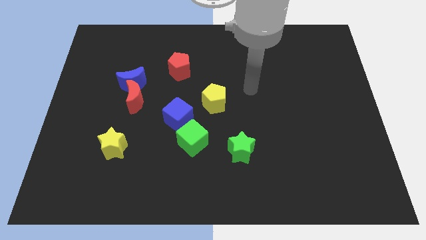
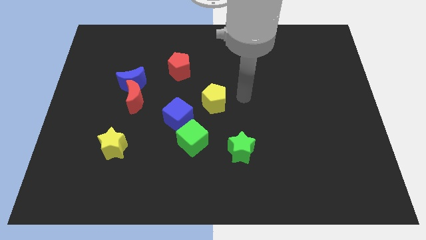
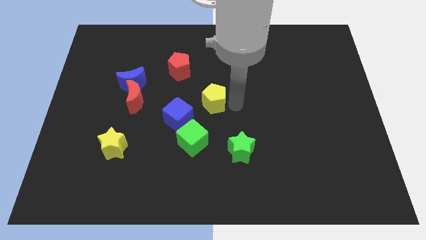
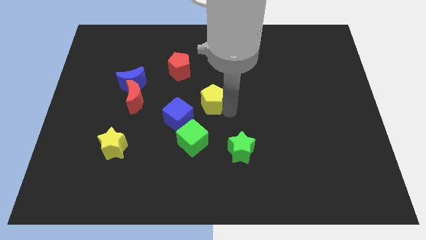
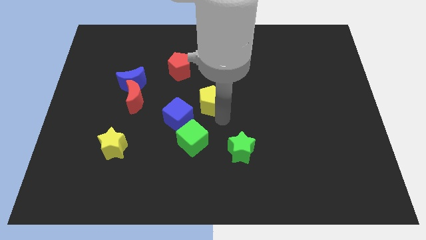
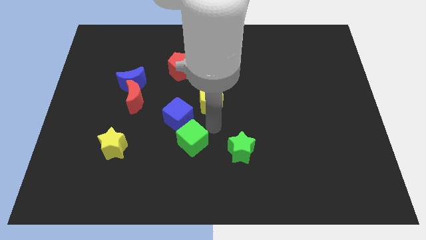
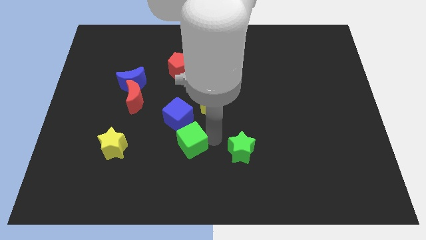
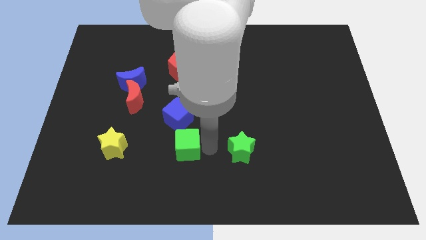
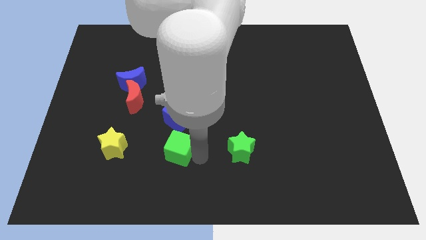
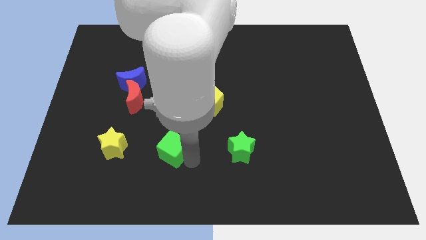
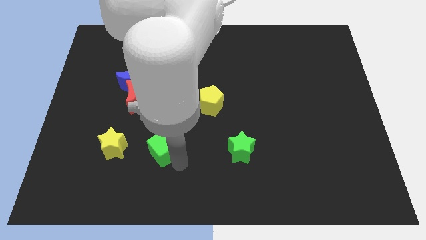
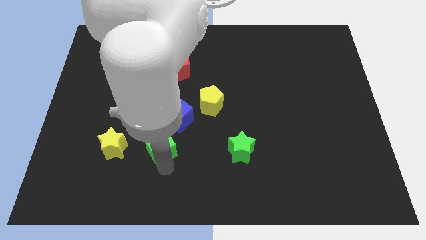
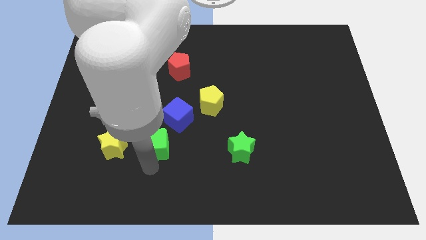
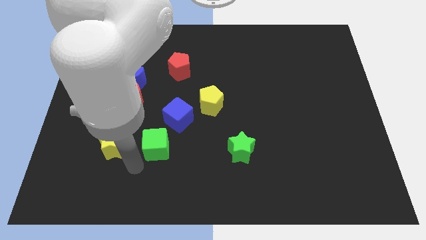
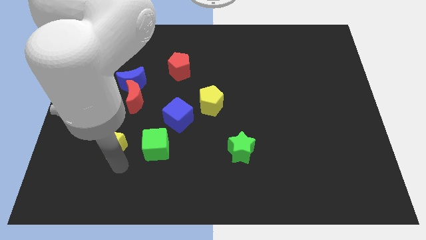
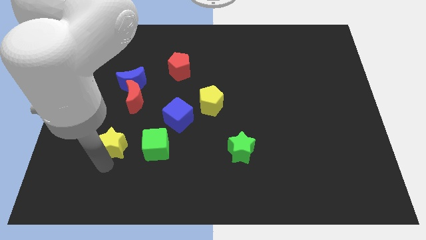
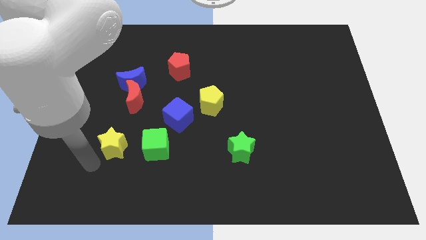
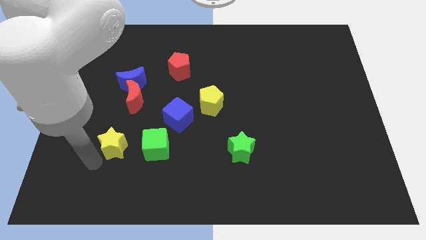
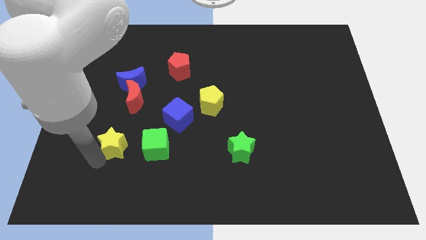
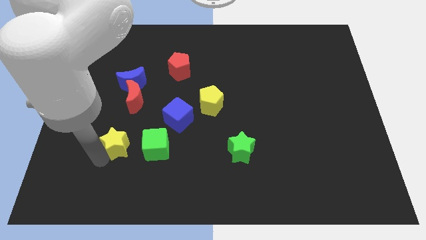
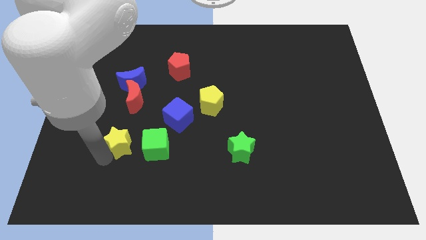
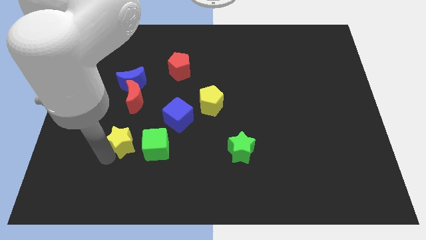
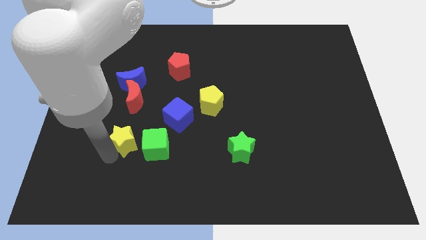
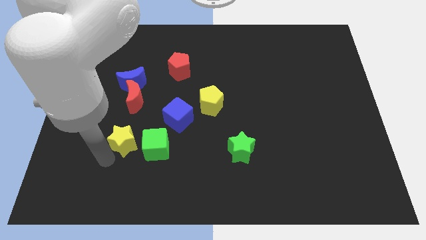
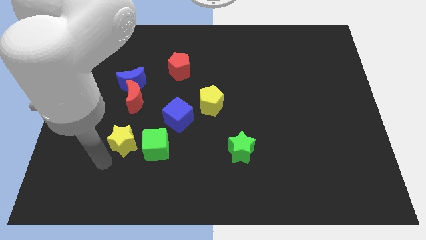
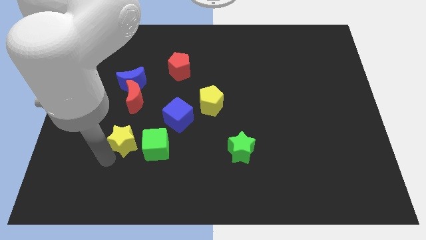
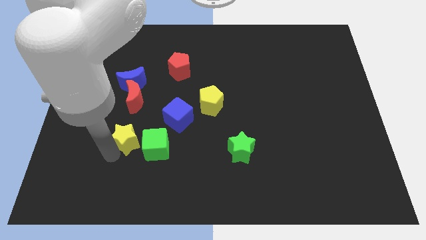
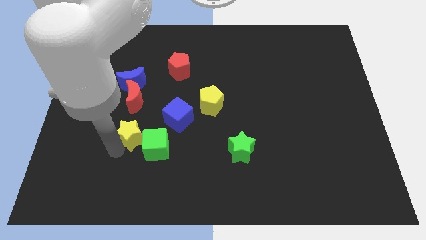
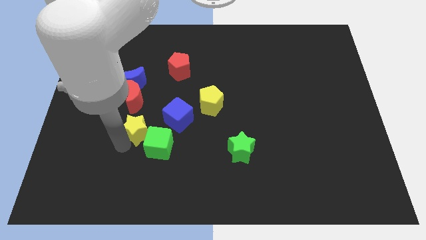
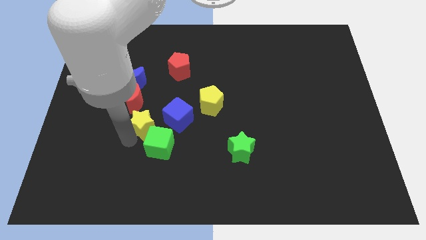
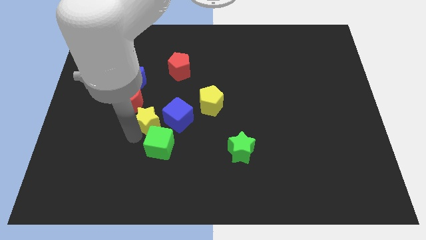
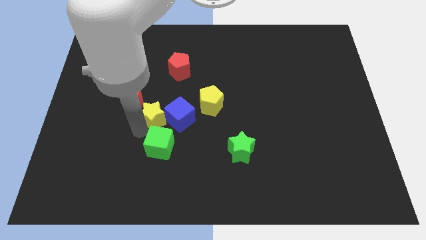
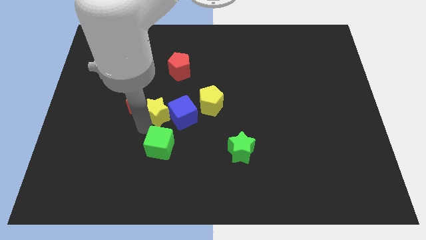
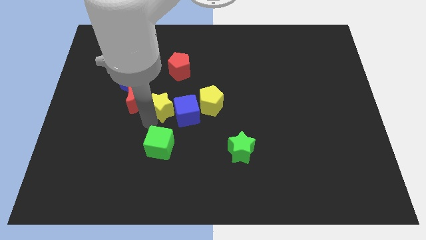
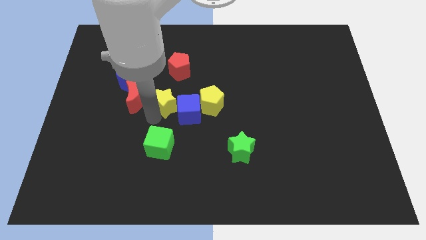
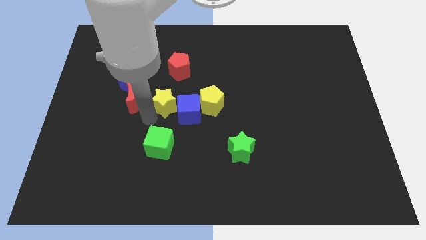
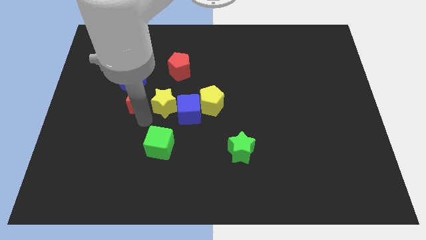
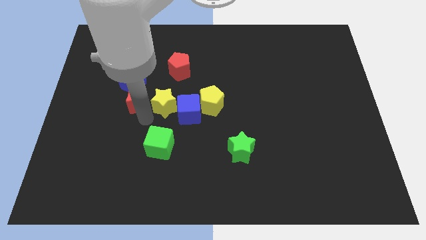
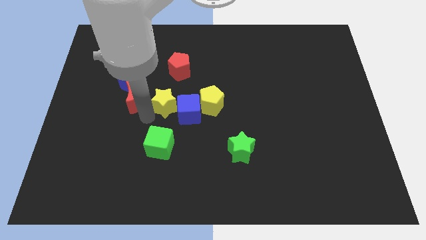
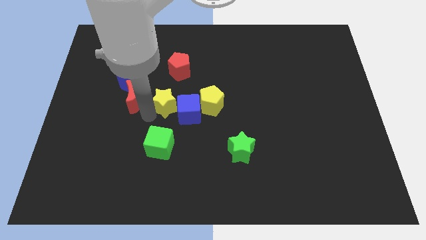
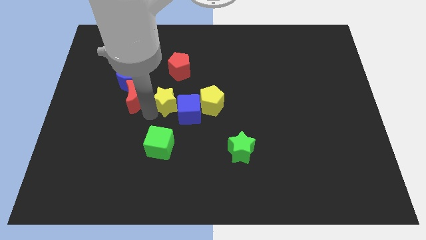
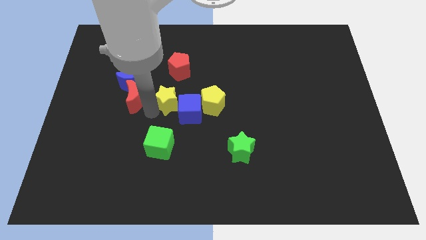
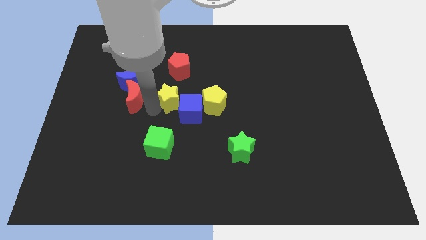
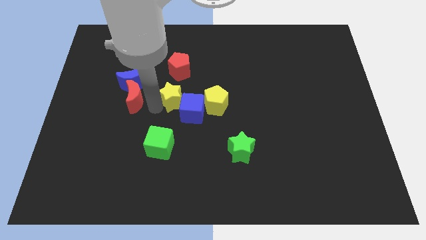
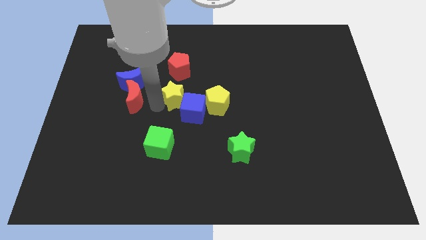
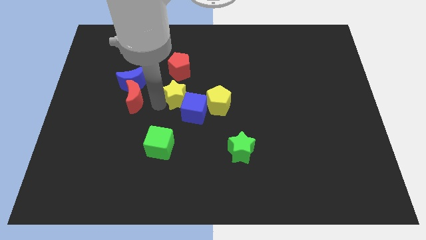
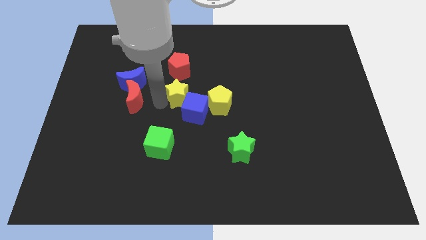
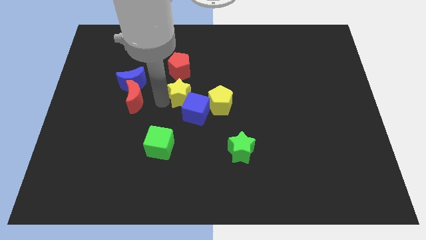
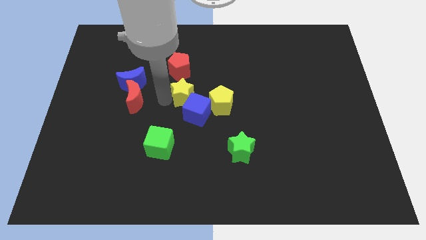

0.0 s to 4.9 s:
move the yellow star diagonally upwards and right

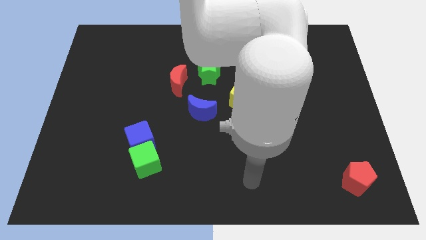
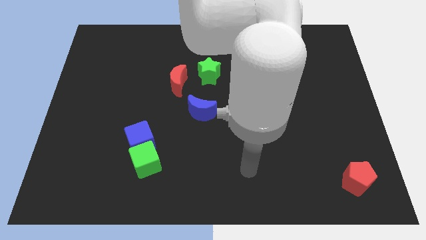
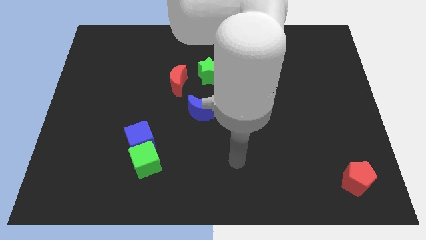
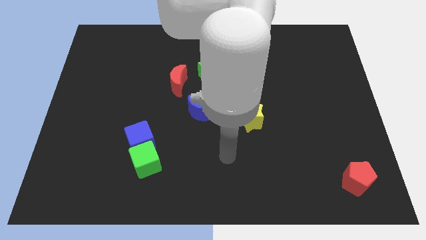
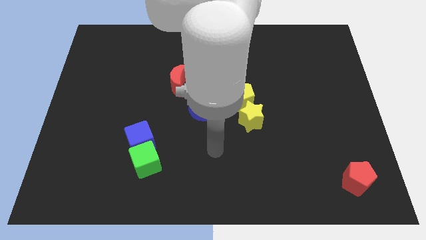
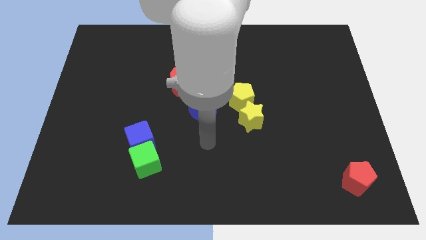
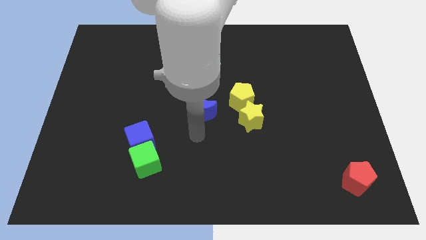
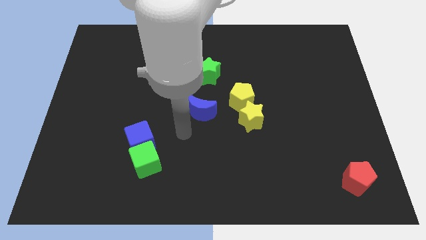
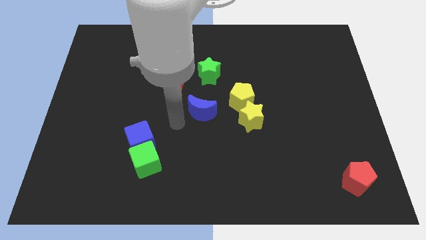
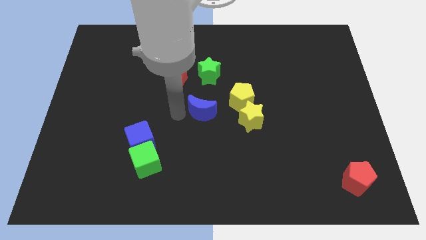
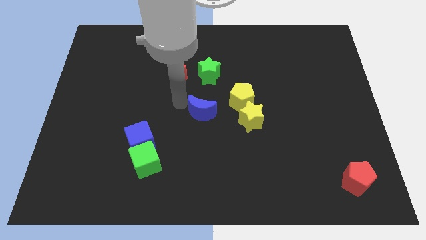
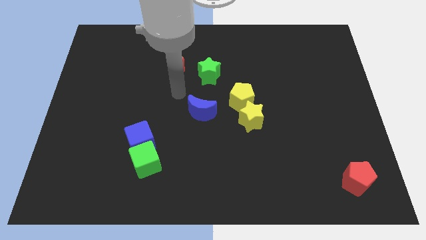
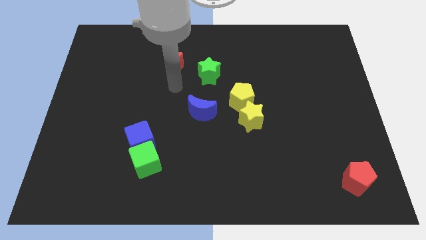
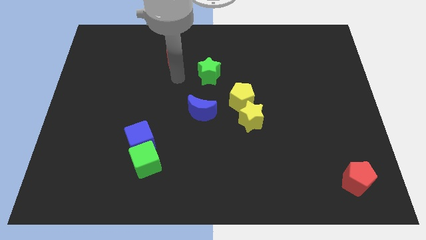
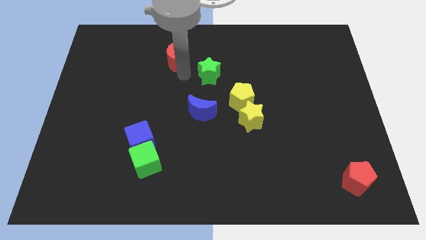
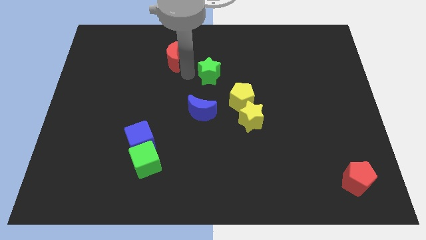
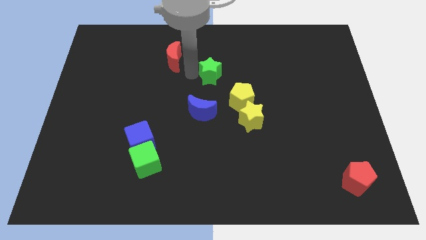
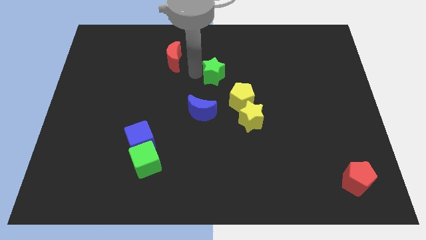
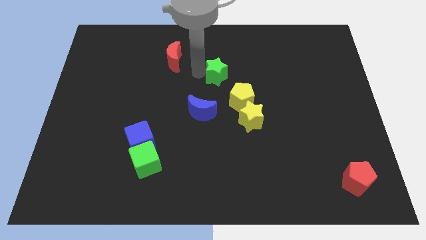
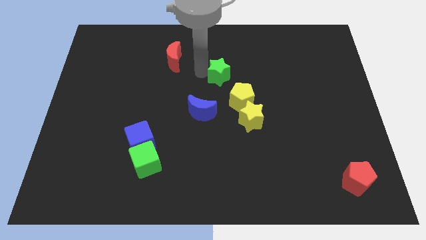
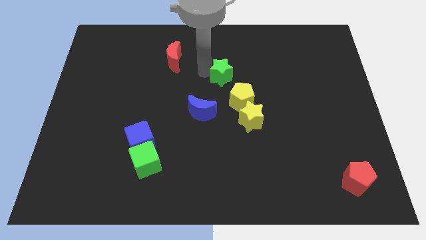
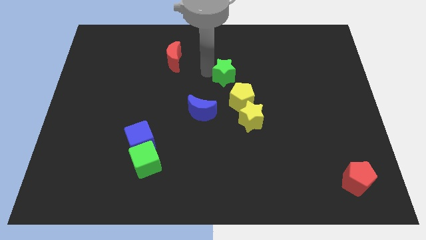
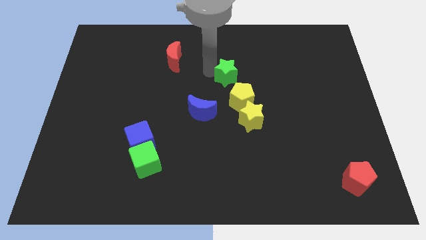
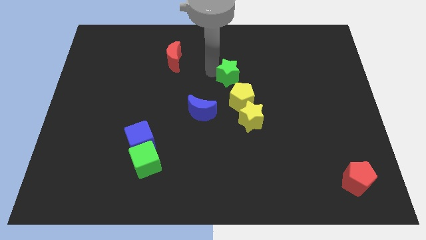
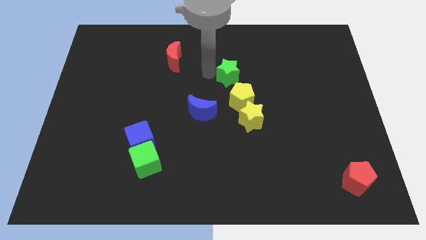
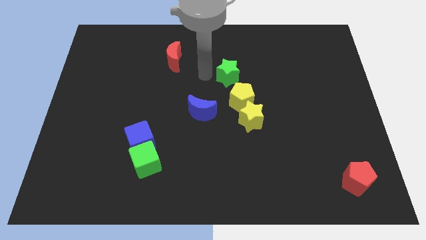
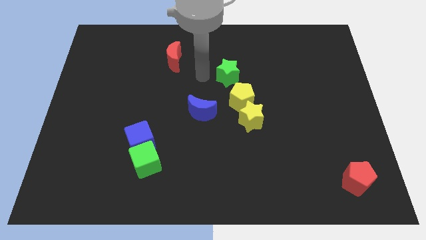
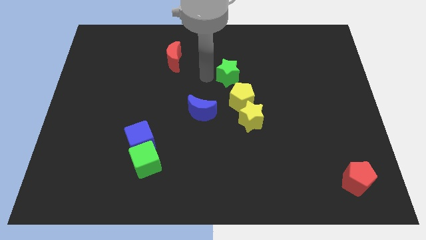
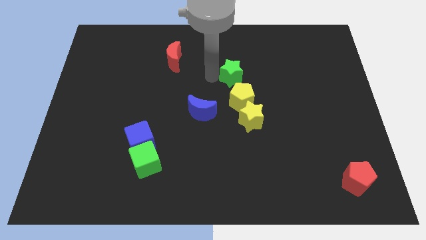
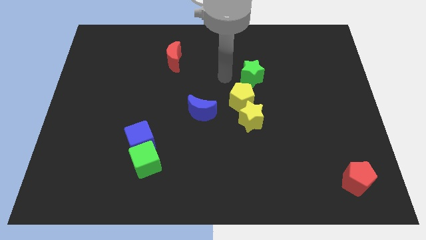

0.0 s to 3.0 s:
slightly slide the green star to the right

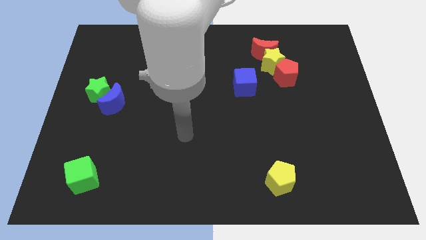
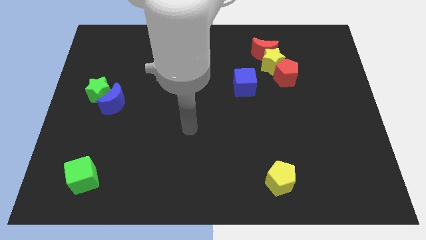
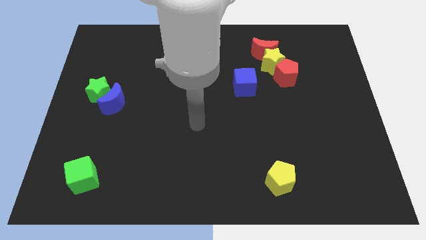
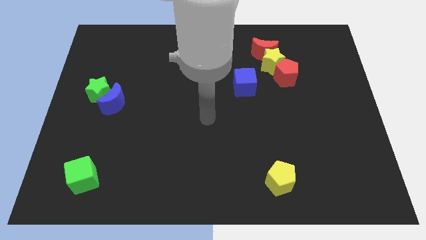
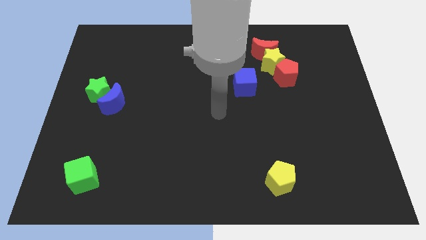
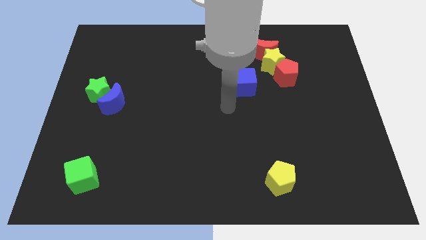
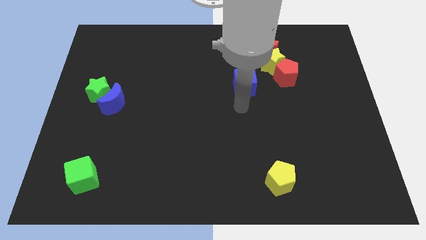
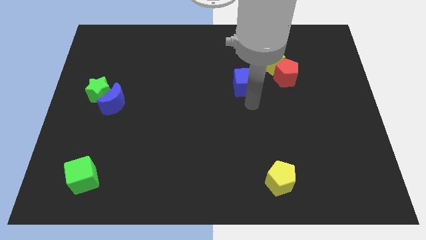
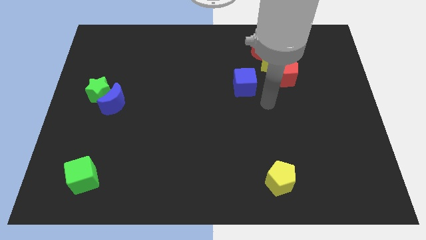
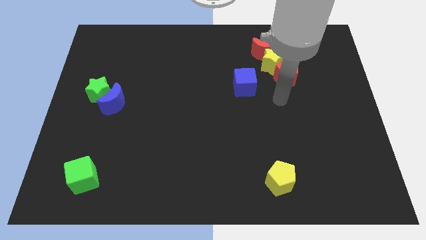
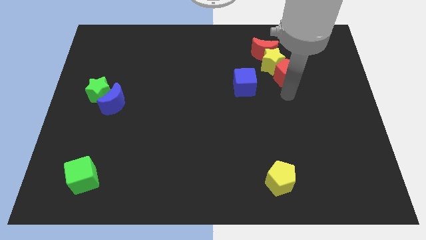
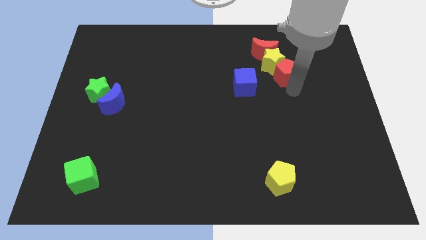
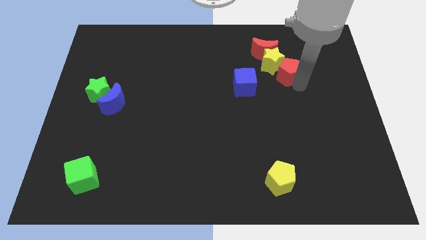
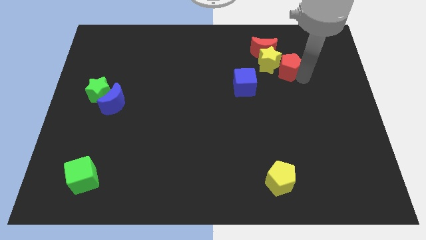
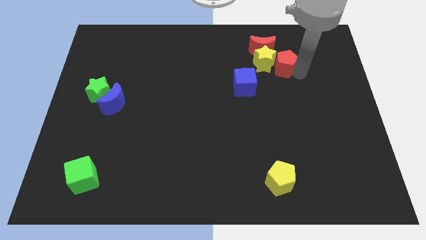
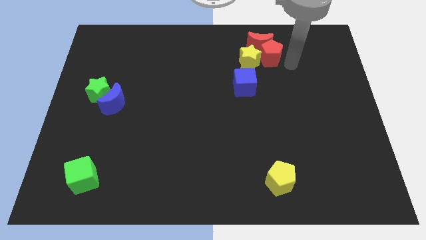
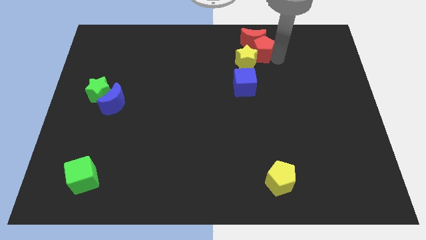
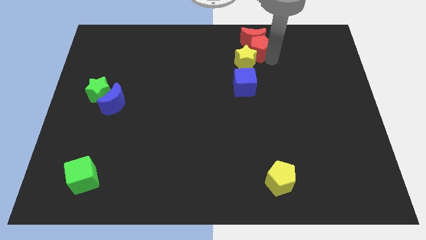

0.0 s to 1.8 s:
slide the yellow star a bit left
